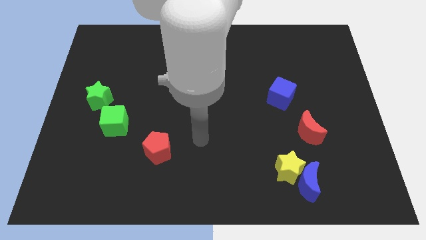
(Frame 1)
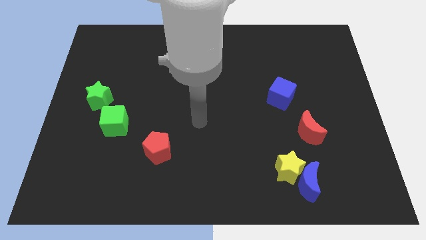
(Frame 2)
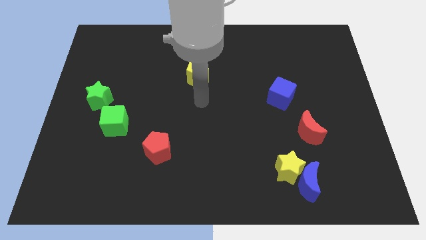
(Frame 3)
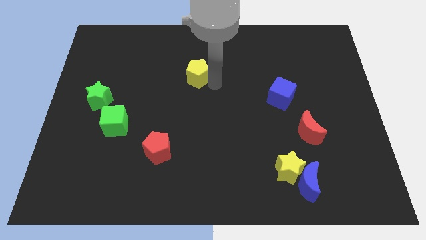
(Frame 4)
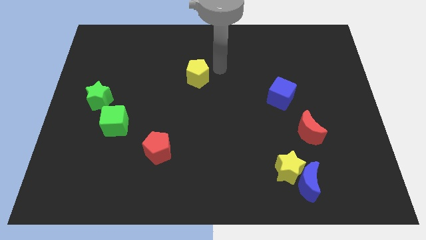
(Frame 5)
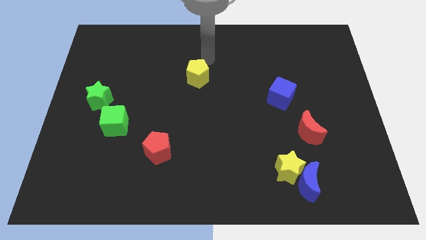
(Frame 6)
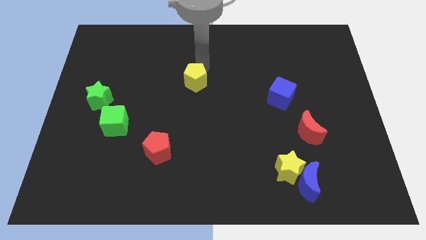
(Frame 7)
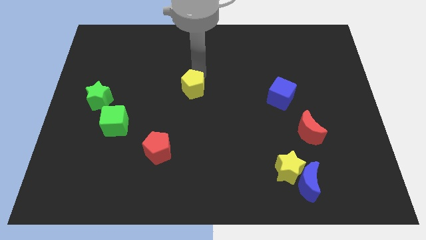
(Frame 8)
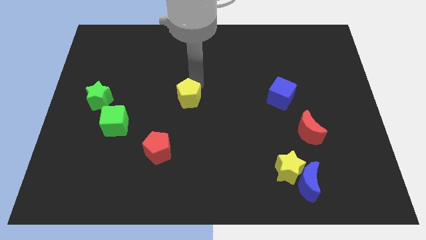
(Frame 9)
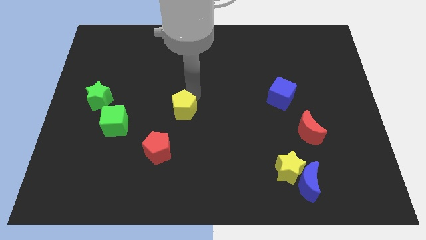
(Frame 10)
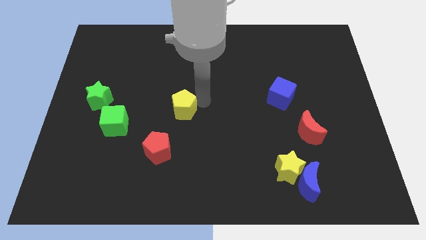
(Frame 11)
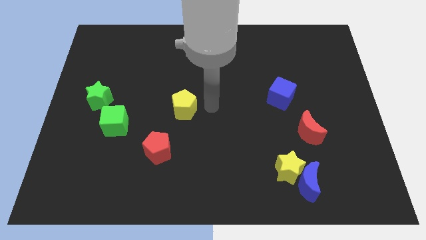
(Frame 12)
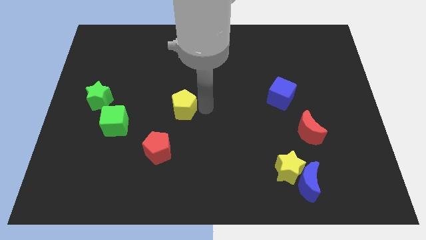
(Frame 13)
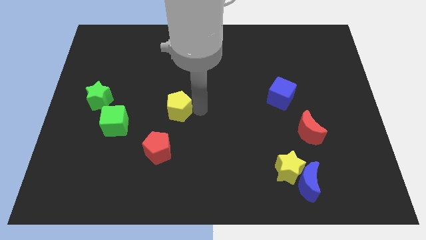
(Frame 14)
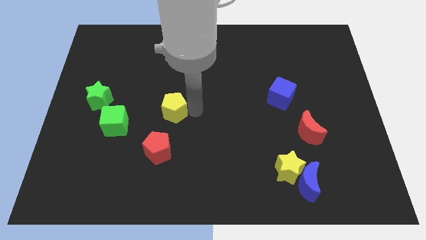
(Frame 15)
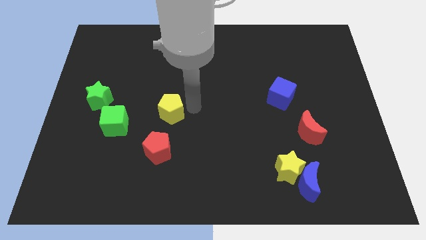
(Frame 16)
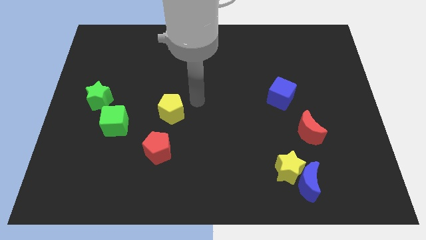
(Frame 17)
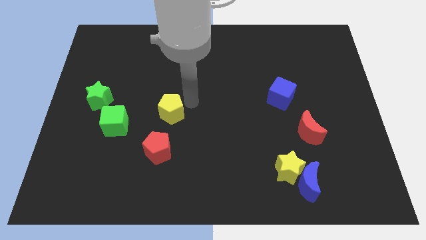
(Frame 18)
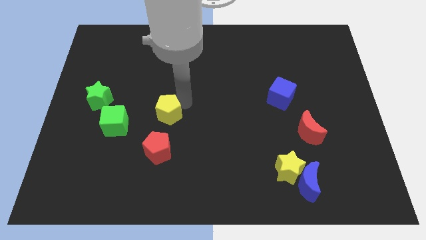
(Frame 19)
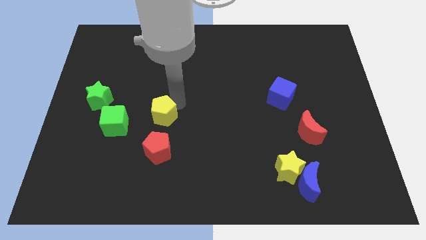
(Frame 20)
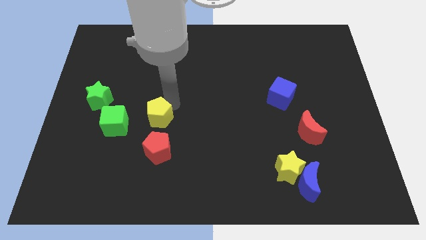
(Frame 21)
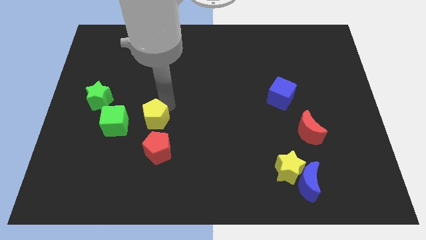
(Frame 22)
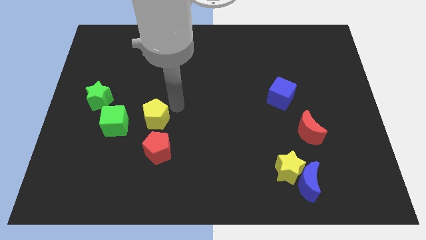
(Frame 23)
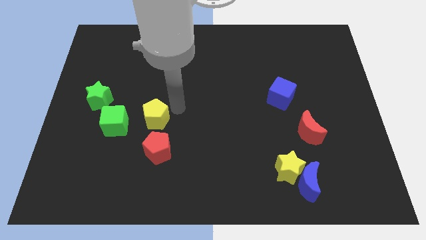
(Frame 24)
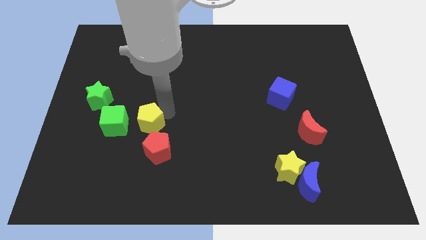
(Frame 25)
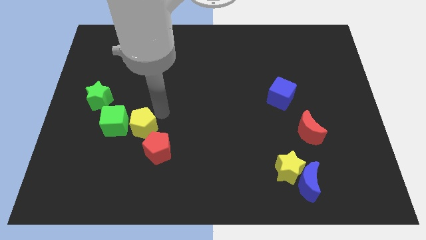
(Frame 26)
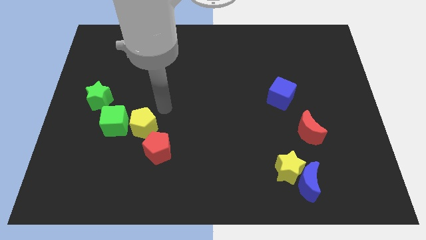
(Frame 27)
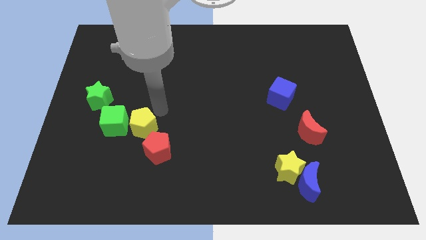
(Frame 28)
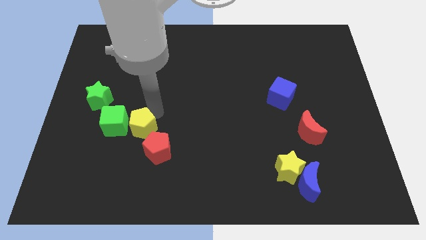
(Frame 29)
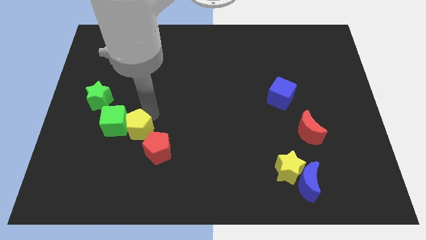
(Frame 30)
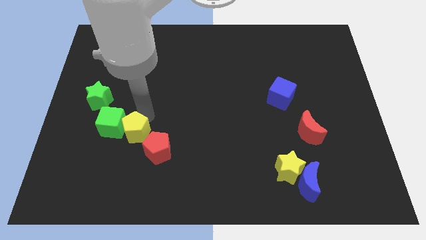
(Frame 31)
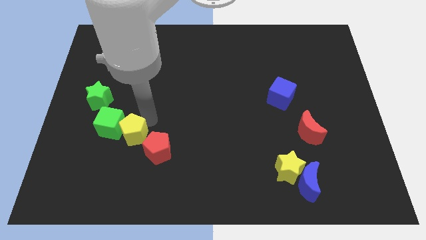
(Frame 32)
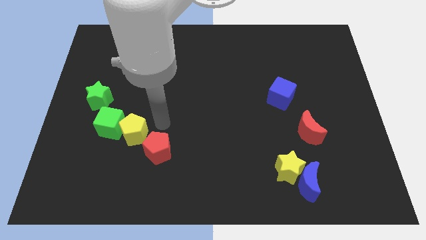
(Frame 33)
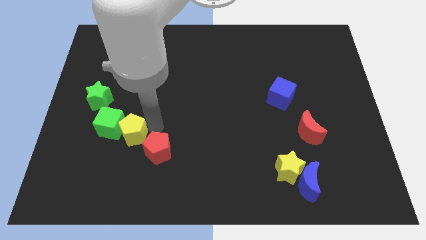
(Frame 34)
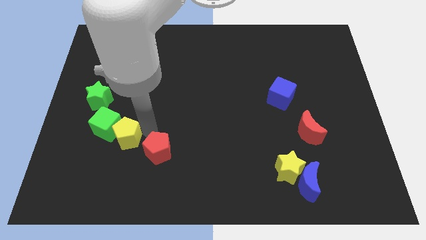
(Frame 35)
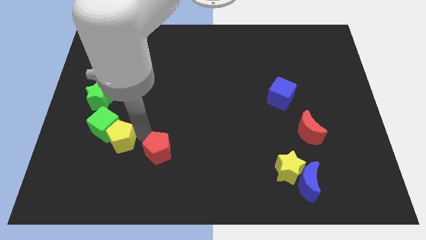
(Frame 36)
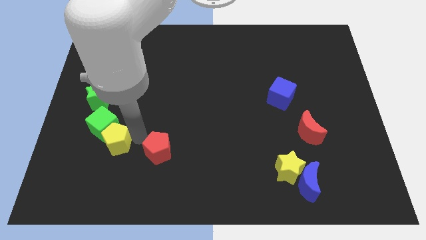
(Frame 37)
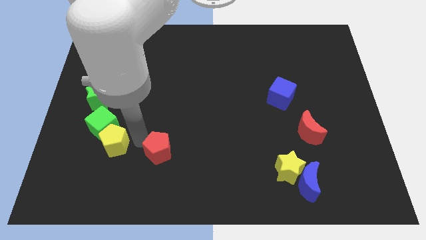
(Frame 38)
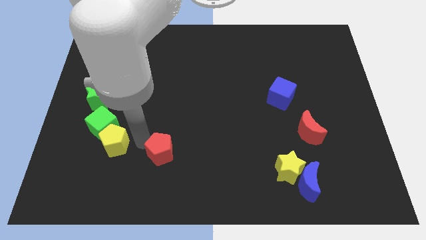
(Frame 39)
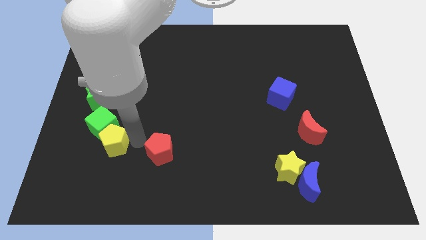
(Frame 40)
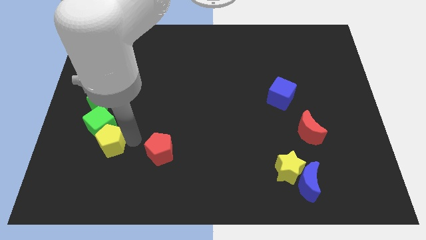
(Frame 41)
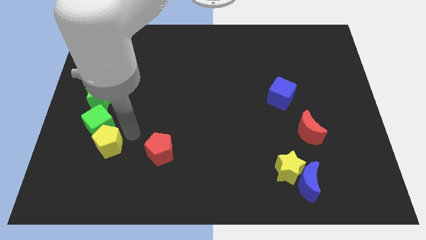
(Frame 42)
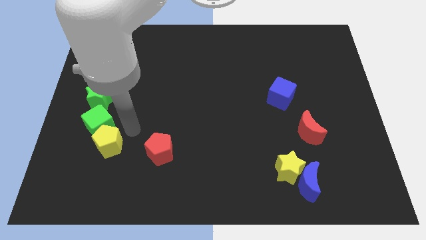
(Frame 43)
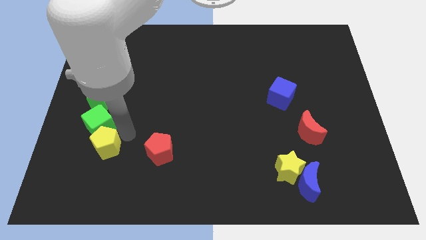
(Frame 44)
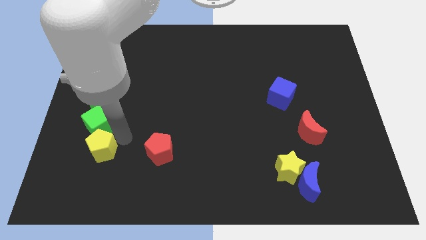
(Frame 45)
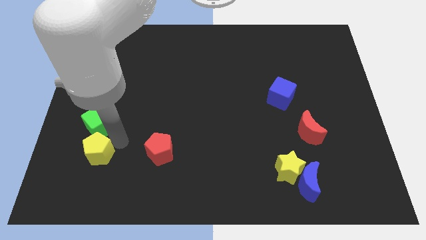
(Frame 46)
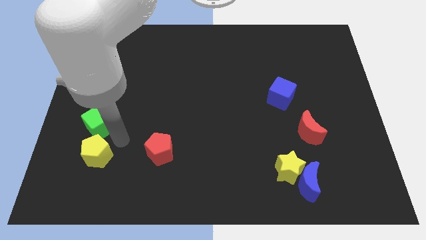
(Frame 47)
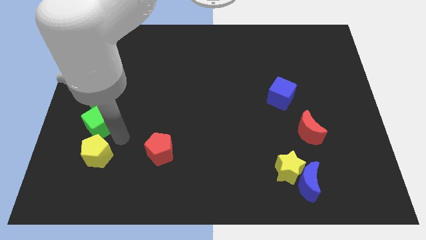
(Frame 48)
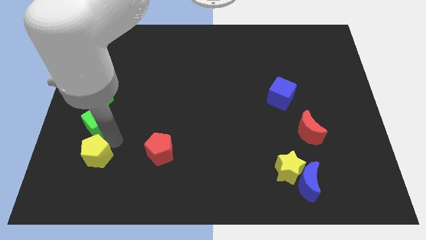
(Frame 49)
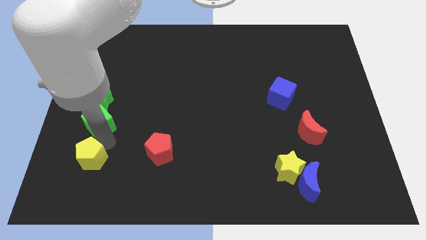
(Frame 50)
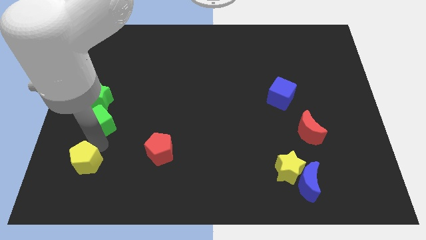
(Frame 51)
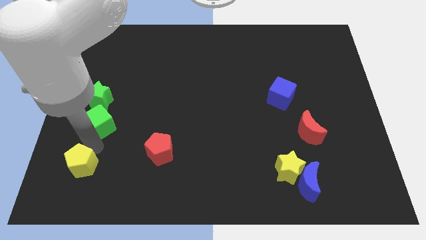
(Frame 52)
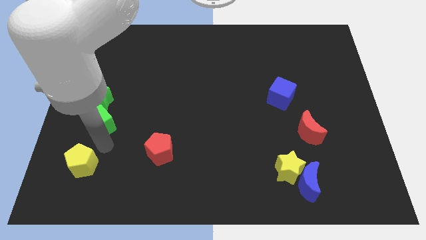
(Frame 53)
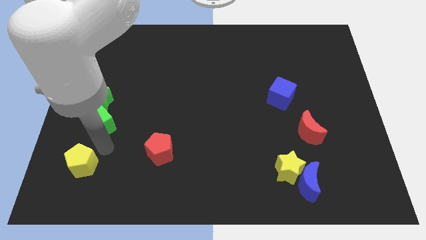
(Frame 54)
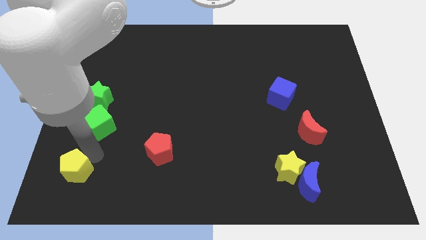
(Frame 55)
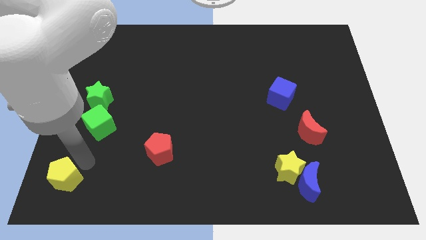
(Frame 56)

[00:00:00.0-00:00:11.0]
slide the yellow pentagon to the bottom left corner

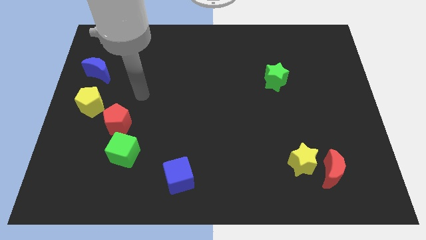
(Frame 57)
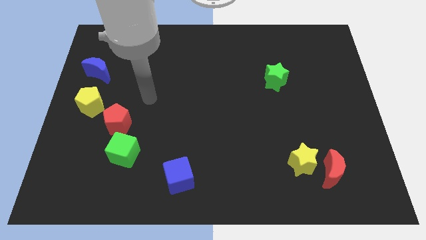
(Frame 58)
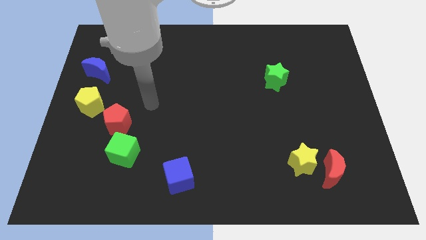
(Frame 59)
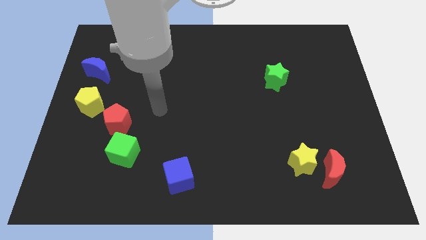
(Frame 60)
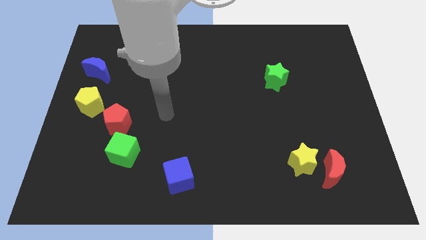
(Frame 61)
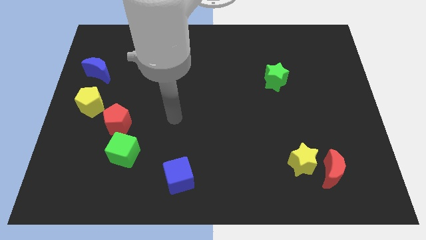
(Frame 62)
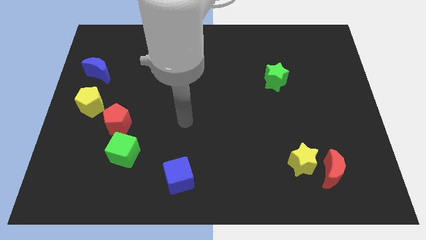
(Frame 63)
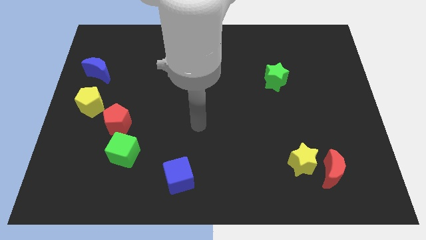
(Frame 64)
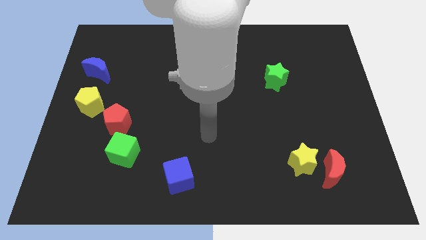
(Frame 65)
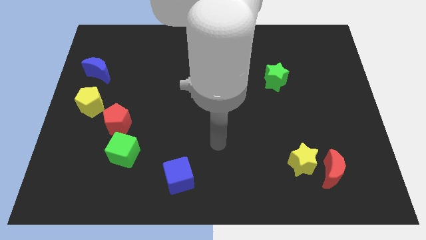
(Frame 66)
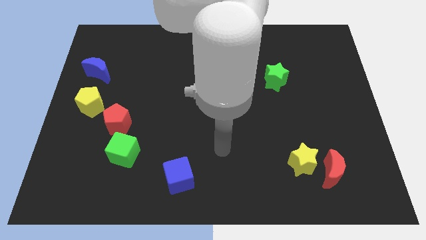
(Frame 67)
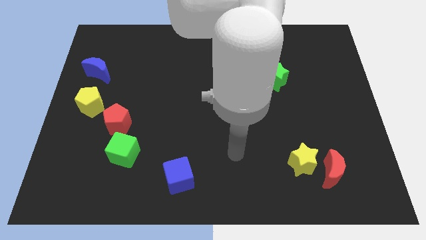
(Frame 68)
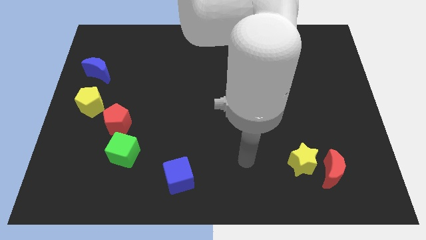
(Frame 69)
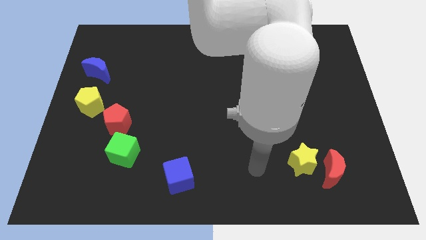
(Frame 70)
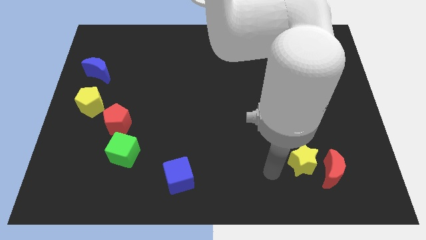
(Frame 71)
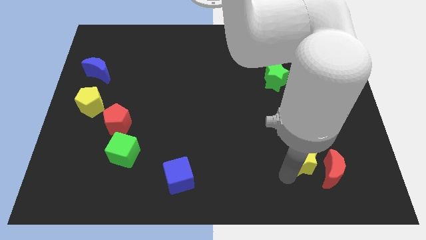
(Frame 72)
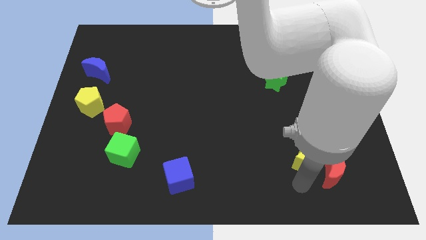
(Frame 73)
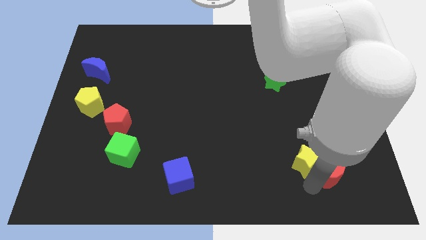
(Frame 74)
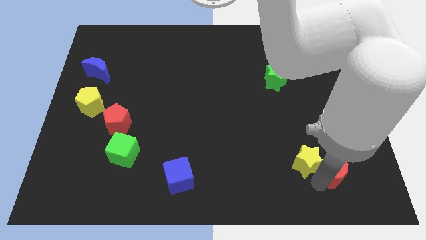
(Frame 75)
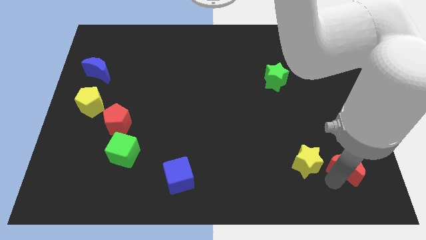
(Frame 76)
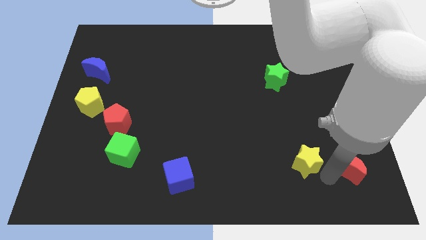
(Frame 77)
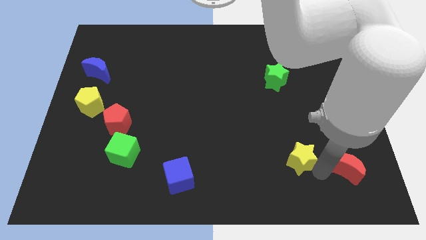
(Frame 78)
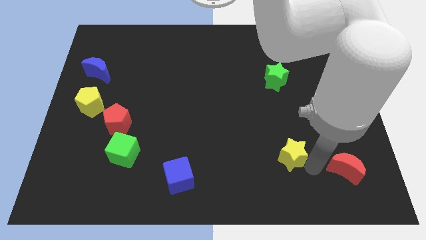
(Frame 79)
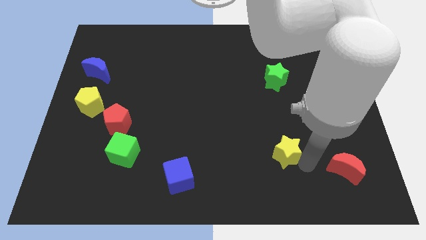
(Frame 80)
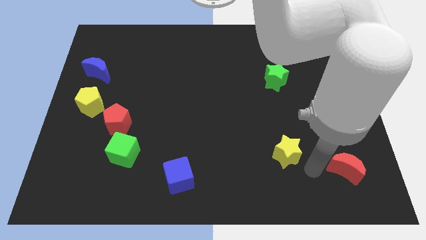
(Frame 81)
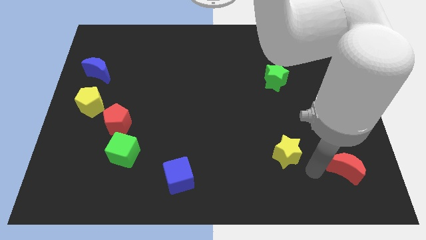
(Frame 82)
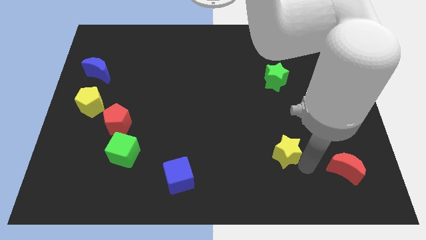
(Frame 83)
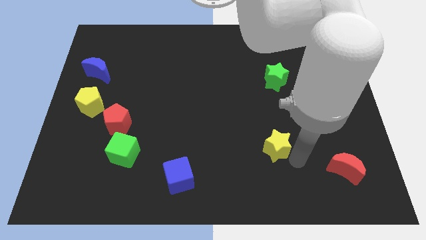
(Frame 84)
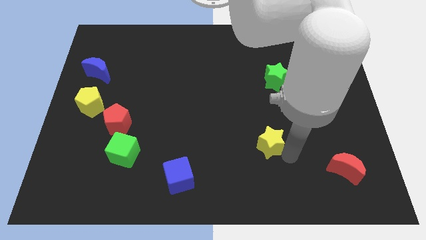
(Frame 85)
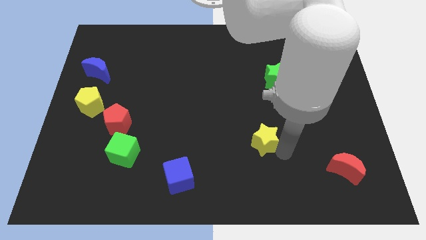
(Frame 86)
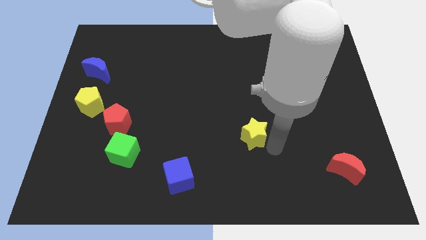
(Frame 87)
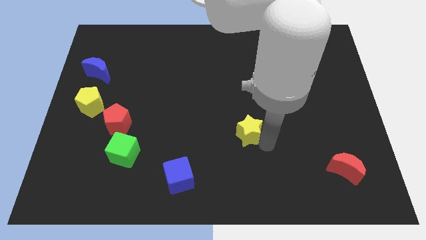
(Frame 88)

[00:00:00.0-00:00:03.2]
move the yellow star to the middle of the board
